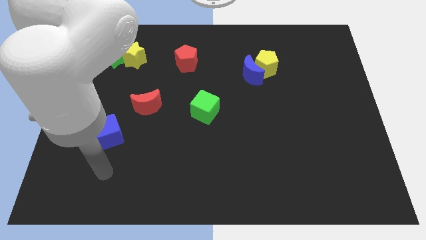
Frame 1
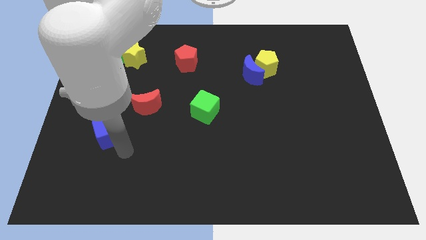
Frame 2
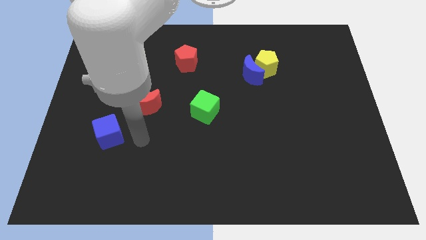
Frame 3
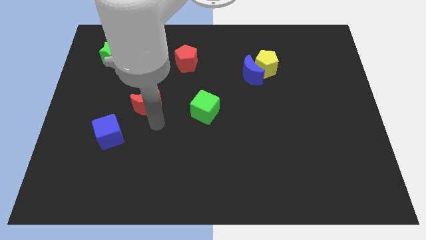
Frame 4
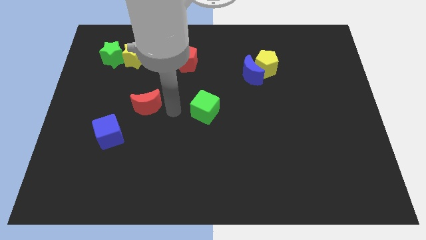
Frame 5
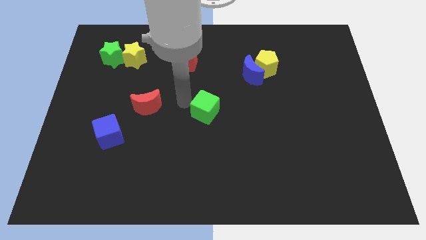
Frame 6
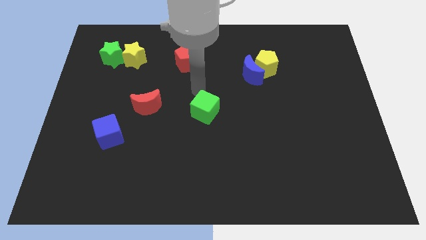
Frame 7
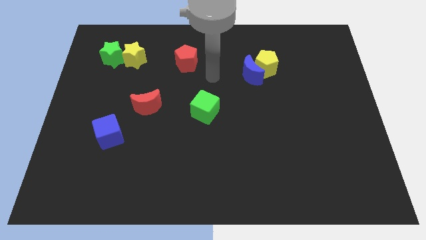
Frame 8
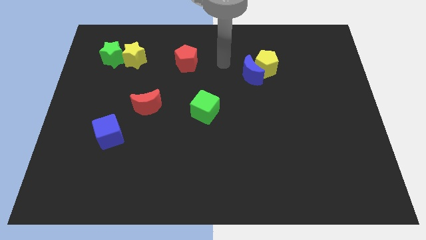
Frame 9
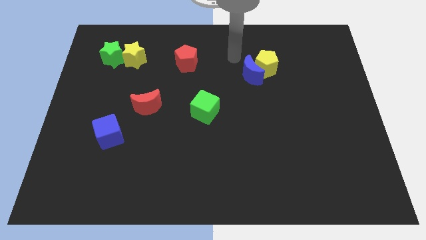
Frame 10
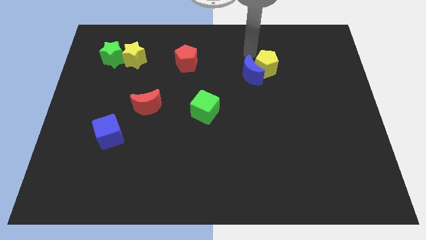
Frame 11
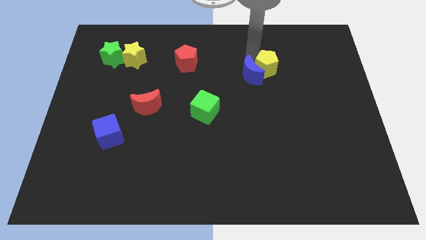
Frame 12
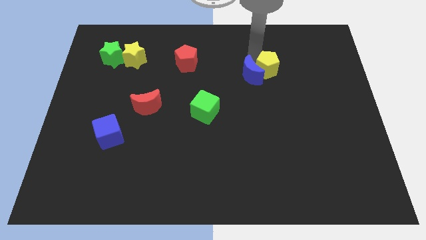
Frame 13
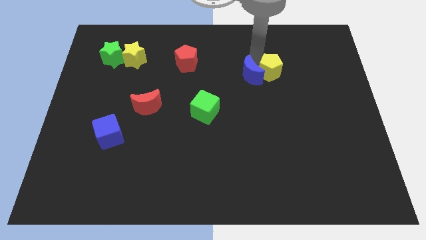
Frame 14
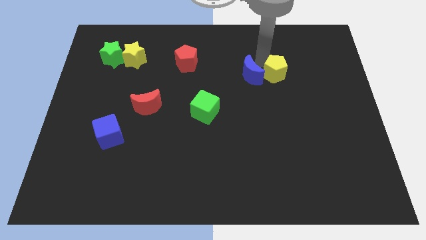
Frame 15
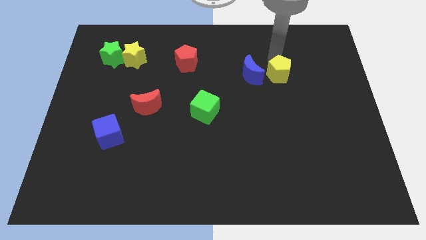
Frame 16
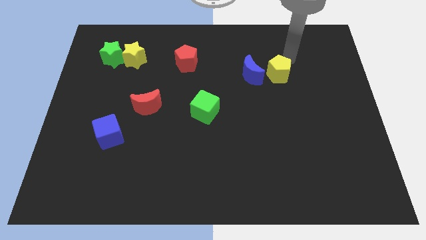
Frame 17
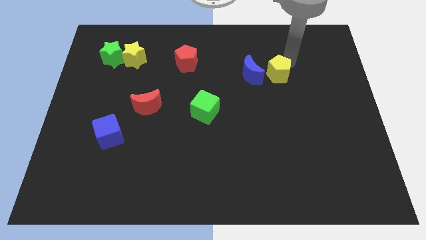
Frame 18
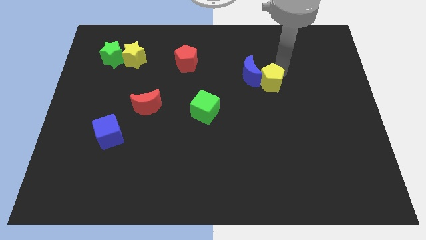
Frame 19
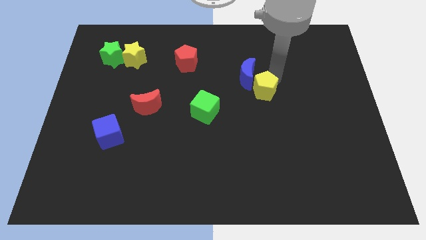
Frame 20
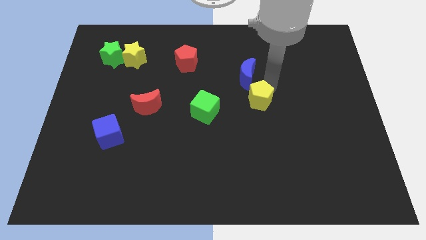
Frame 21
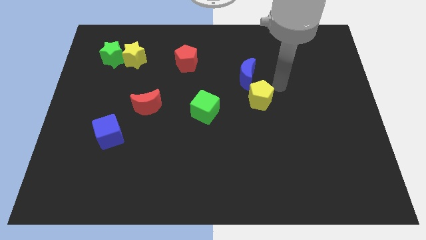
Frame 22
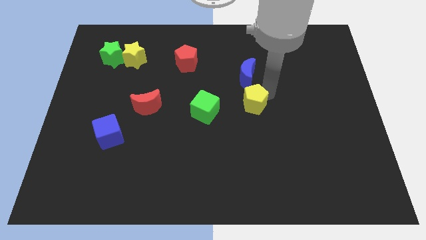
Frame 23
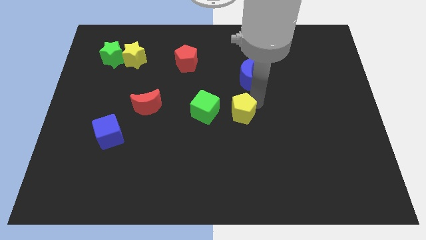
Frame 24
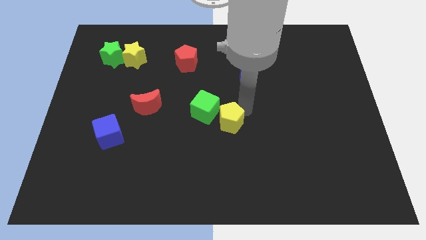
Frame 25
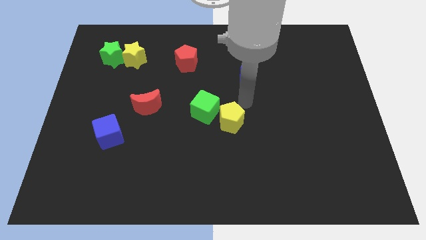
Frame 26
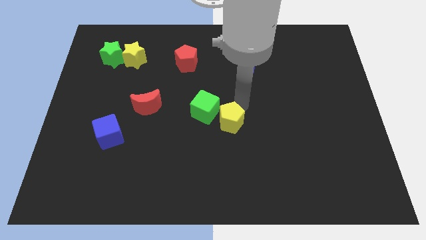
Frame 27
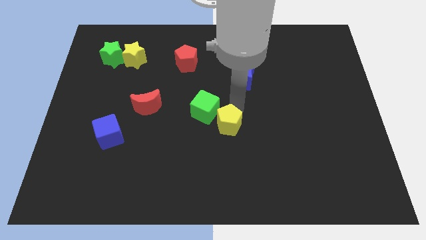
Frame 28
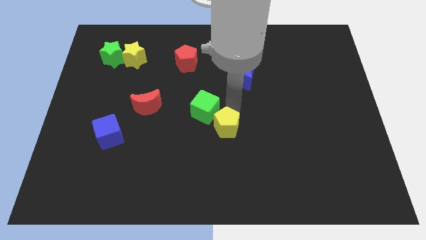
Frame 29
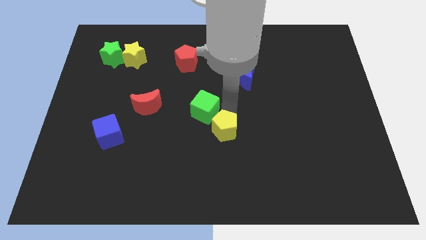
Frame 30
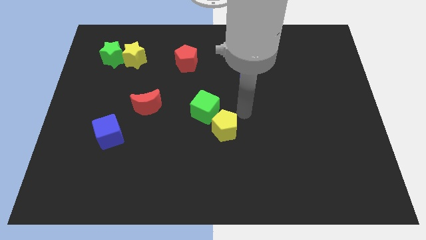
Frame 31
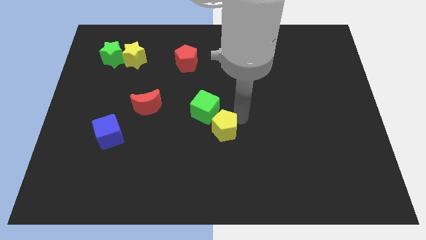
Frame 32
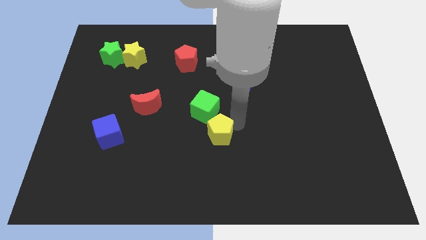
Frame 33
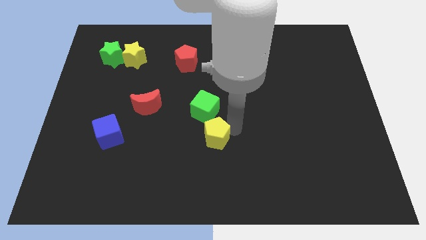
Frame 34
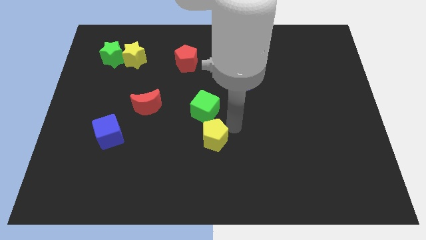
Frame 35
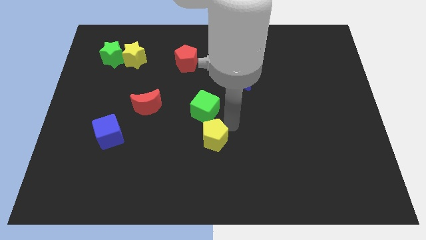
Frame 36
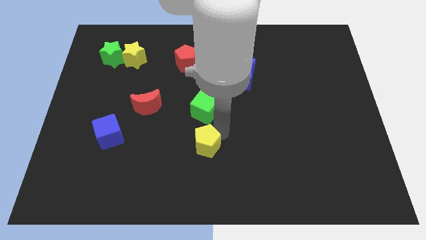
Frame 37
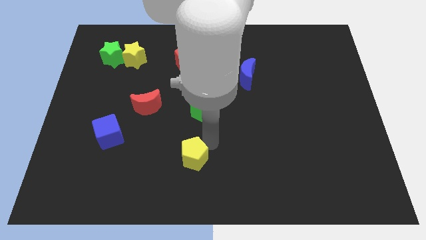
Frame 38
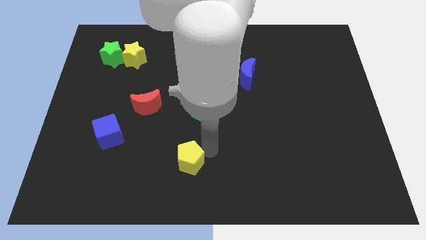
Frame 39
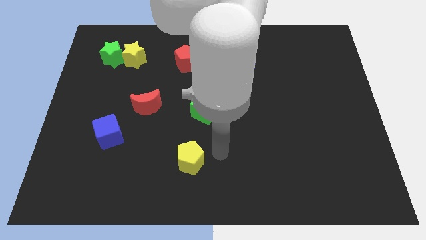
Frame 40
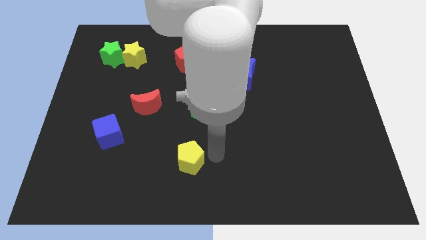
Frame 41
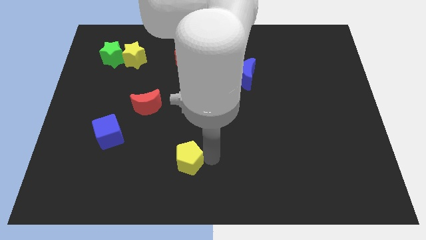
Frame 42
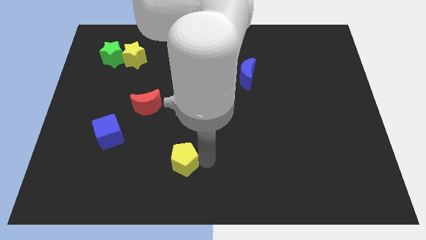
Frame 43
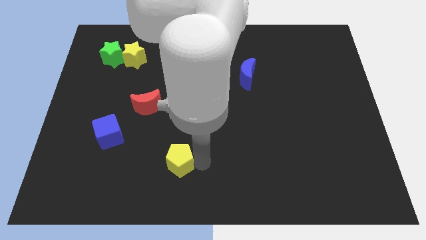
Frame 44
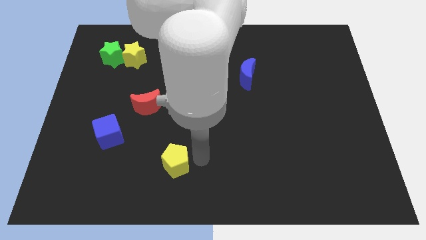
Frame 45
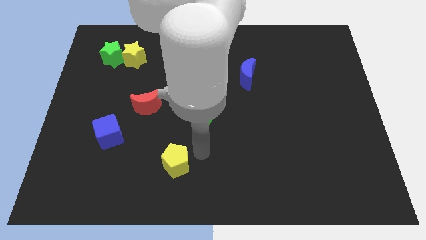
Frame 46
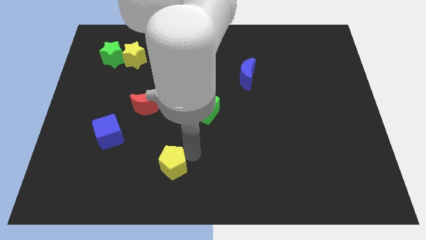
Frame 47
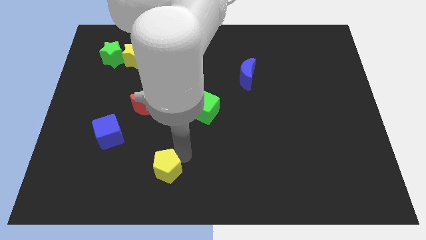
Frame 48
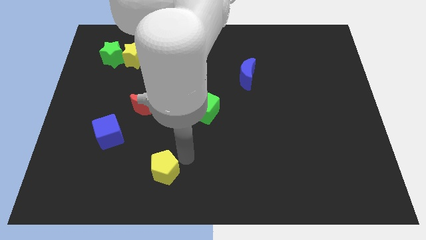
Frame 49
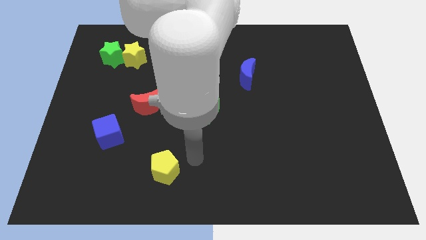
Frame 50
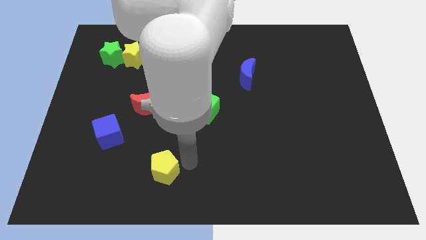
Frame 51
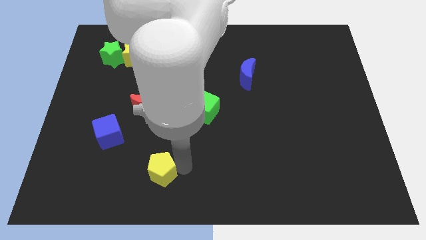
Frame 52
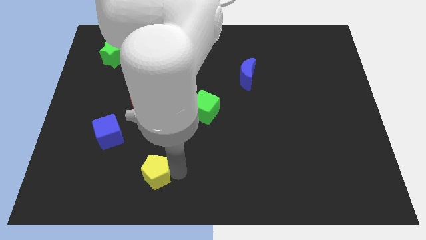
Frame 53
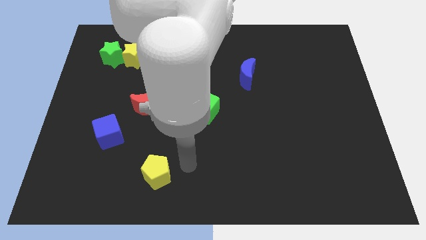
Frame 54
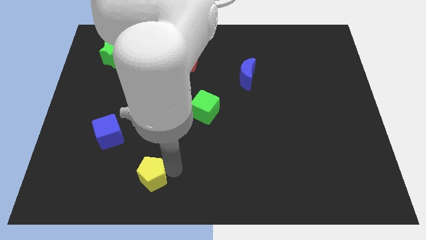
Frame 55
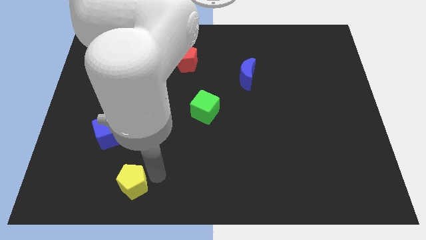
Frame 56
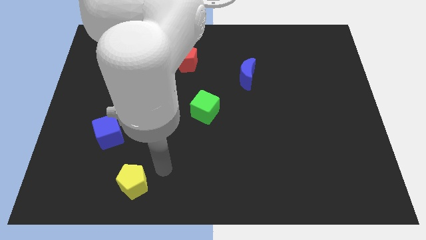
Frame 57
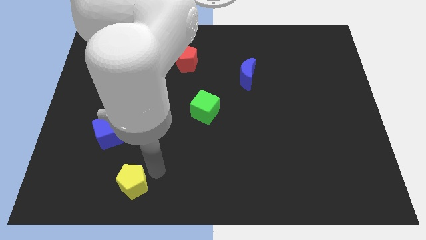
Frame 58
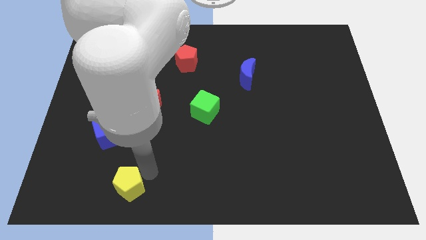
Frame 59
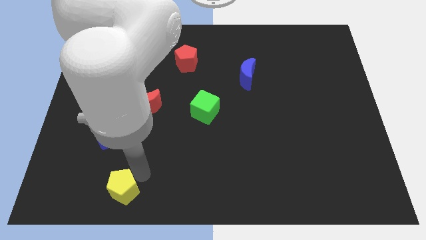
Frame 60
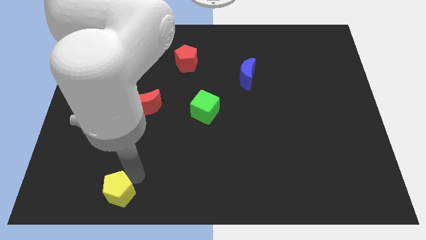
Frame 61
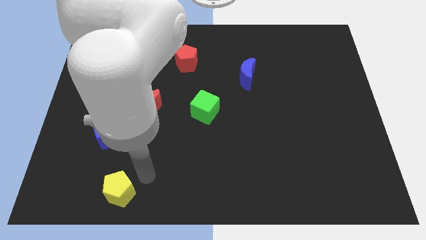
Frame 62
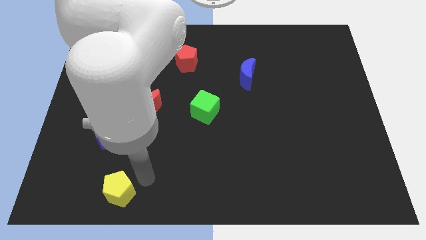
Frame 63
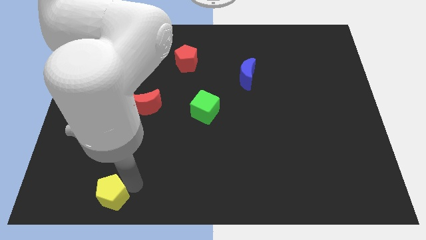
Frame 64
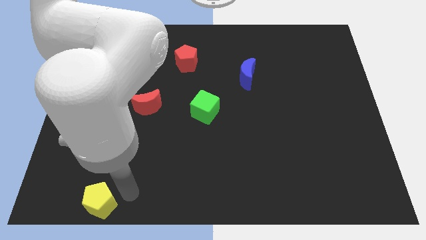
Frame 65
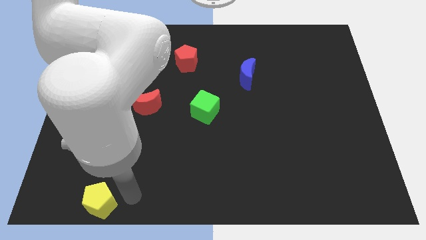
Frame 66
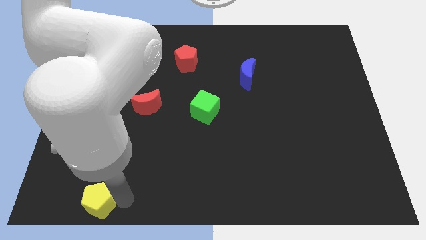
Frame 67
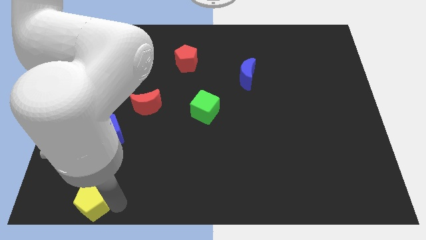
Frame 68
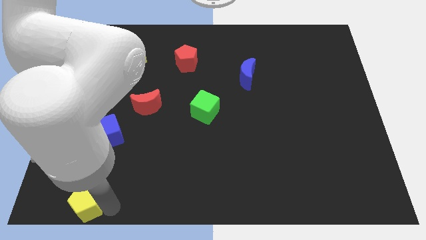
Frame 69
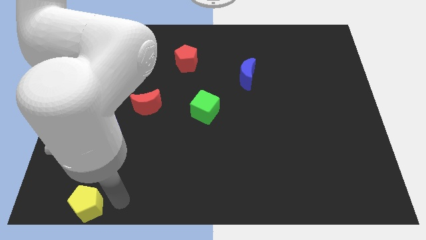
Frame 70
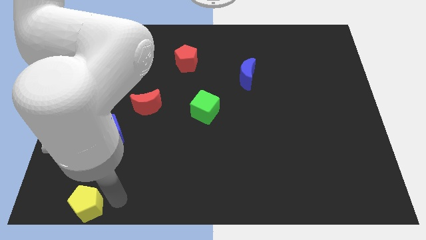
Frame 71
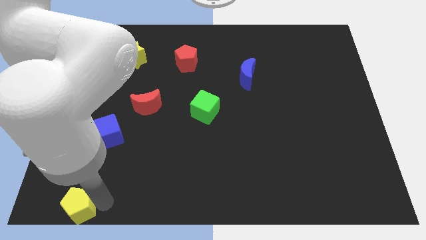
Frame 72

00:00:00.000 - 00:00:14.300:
push the yellow pentagon to the bottom left
